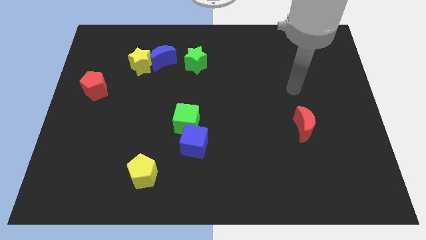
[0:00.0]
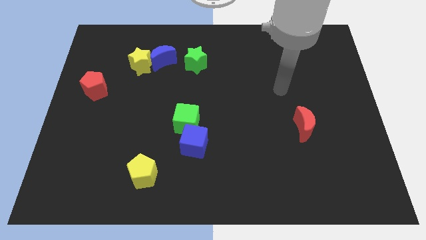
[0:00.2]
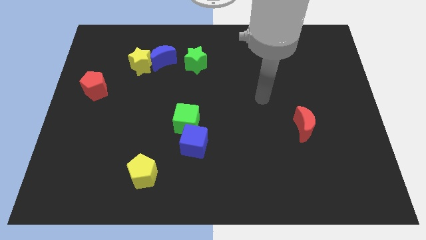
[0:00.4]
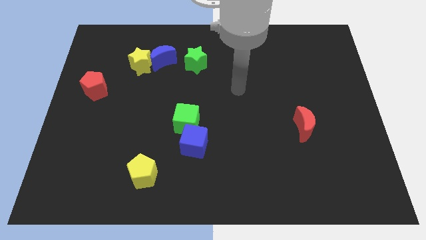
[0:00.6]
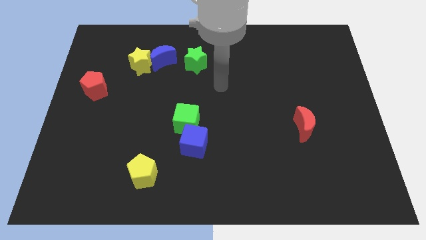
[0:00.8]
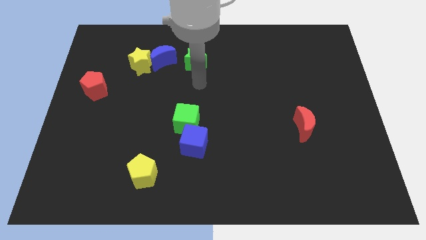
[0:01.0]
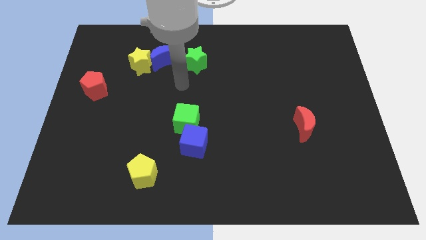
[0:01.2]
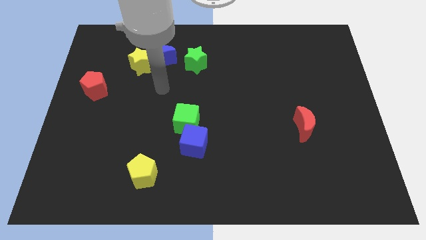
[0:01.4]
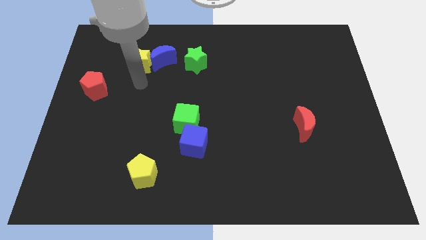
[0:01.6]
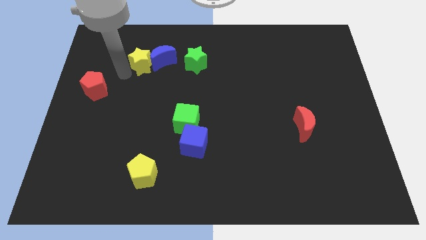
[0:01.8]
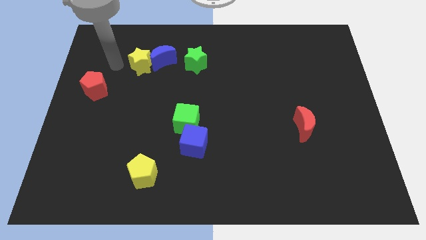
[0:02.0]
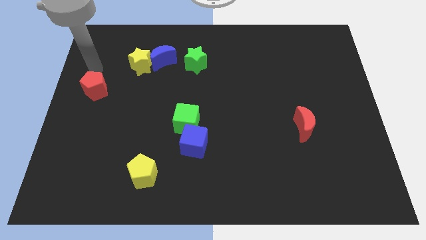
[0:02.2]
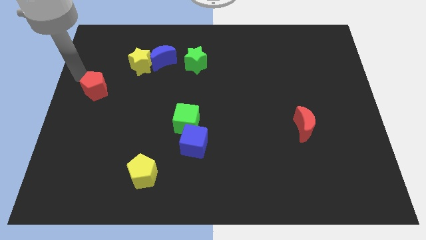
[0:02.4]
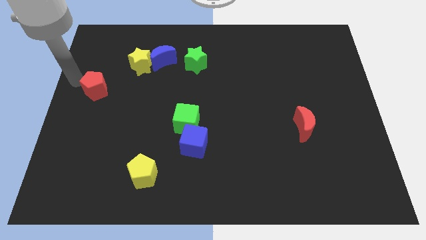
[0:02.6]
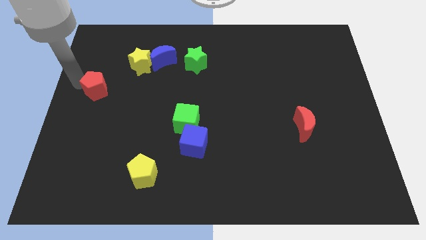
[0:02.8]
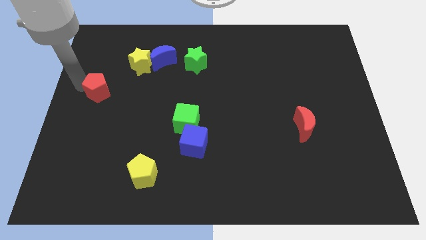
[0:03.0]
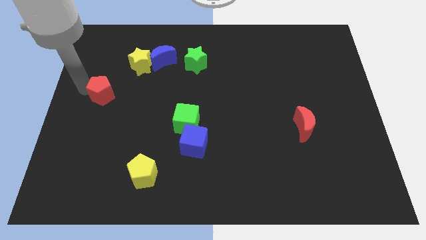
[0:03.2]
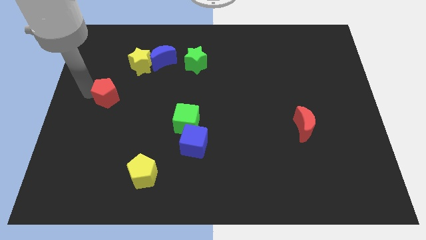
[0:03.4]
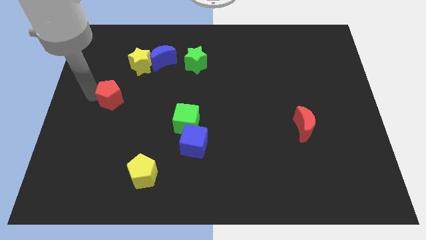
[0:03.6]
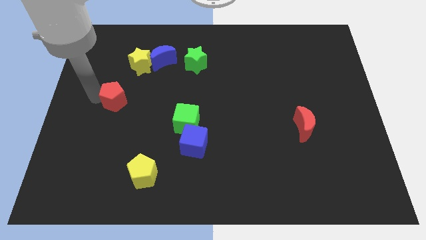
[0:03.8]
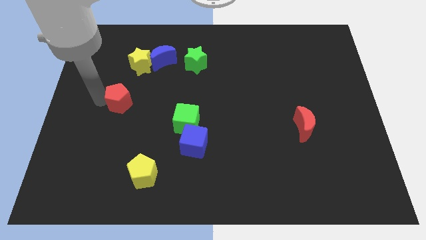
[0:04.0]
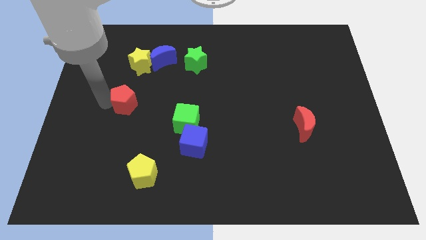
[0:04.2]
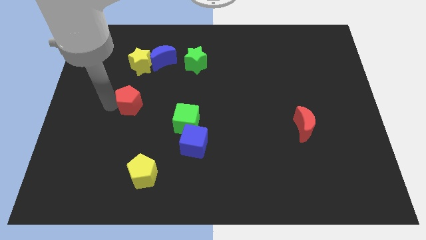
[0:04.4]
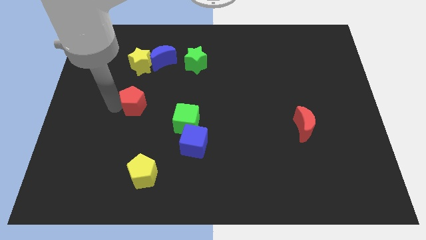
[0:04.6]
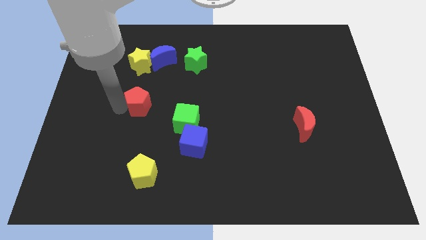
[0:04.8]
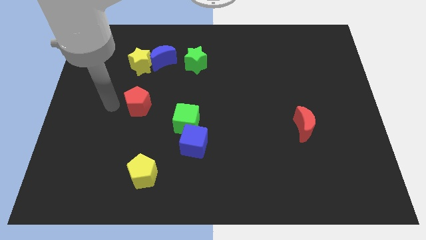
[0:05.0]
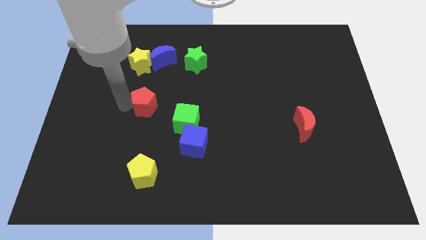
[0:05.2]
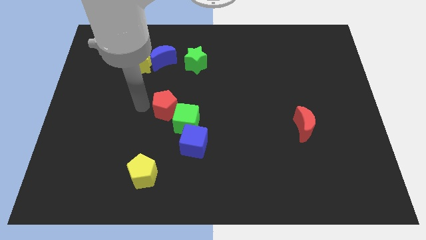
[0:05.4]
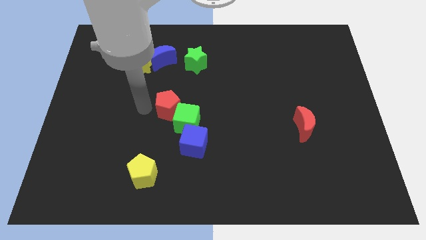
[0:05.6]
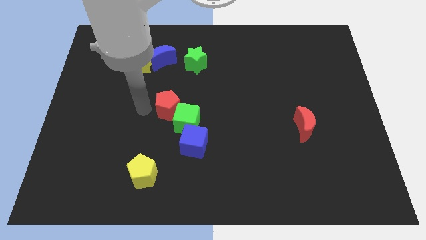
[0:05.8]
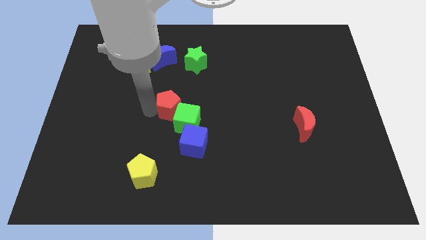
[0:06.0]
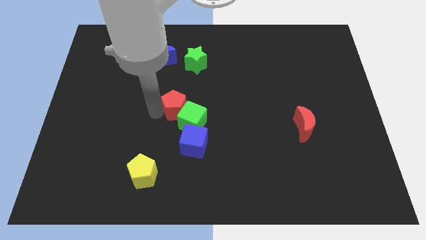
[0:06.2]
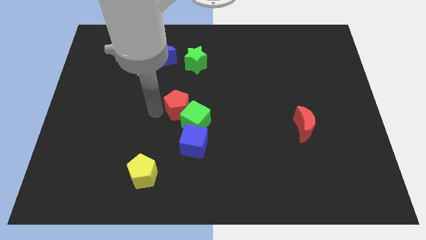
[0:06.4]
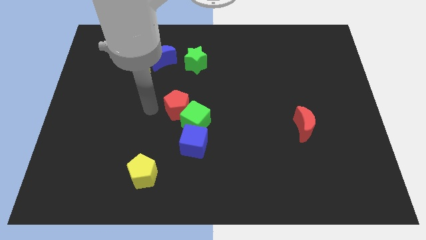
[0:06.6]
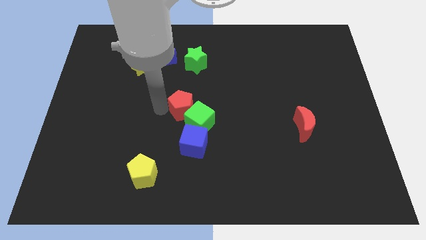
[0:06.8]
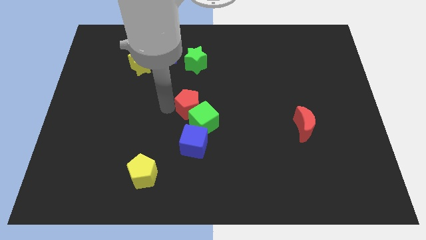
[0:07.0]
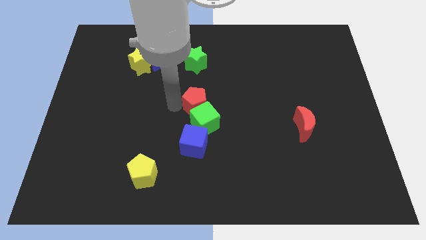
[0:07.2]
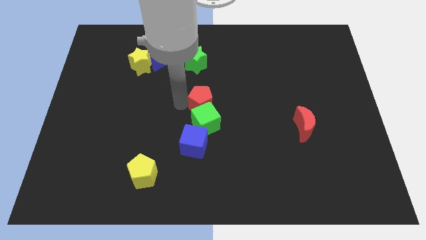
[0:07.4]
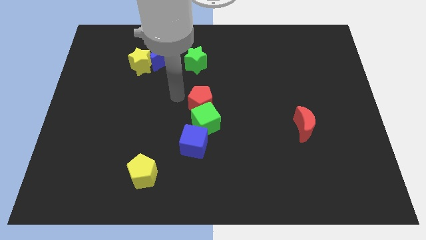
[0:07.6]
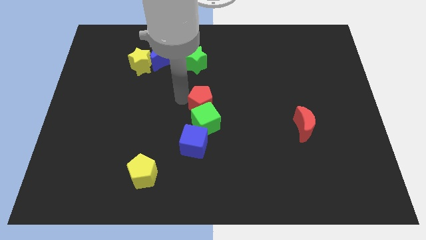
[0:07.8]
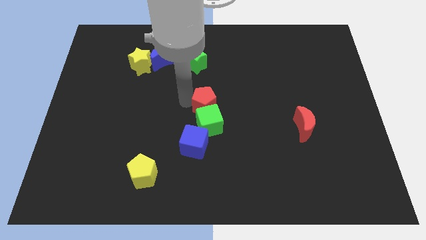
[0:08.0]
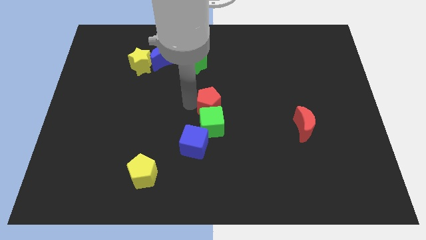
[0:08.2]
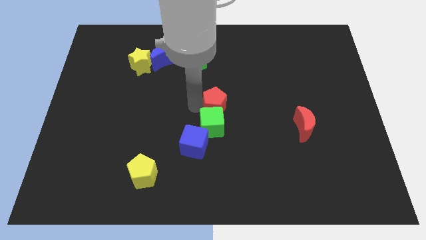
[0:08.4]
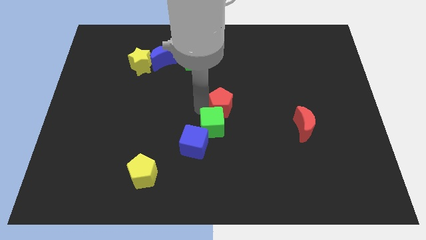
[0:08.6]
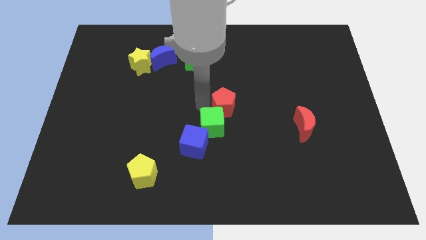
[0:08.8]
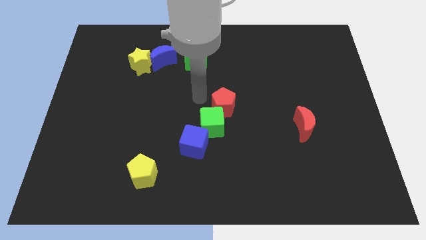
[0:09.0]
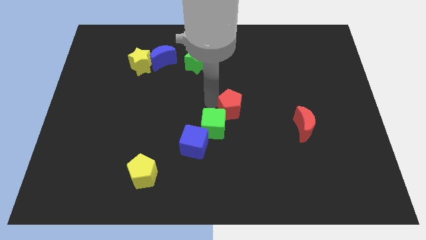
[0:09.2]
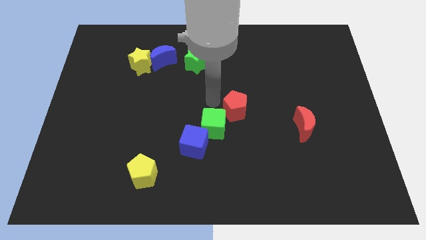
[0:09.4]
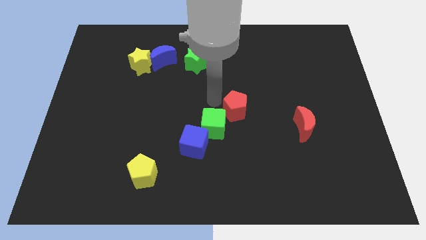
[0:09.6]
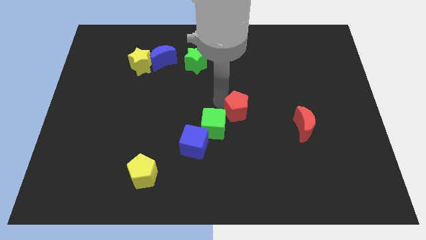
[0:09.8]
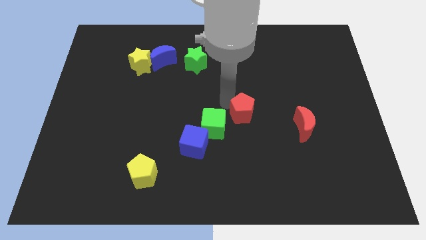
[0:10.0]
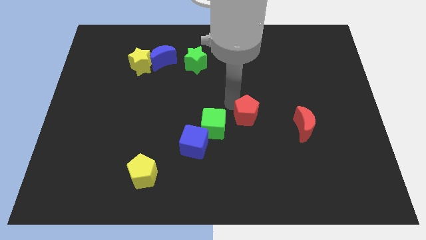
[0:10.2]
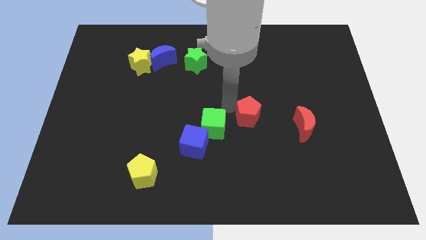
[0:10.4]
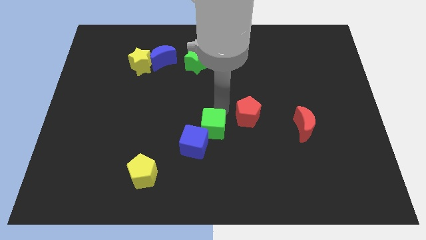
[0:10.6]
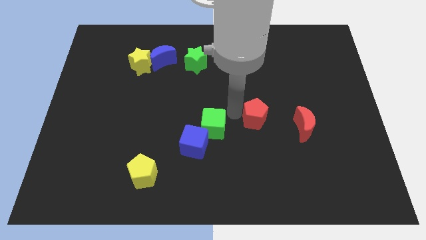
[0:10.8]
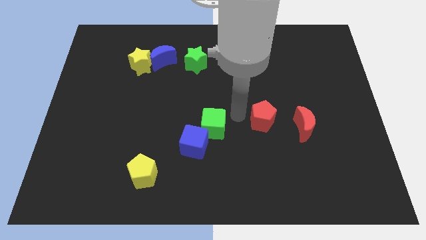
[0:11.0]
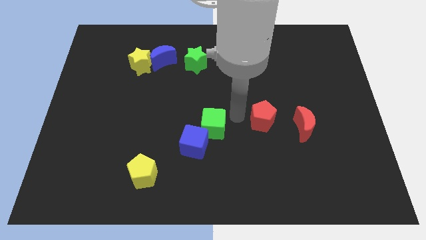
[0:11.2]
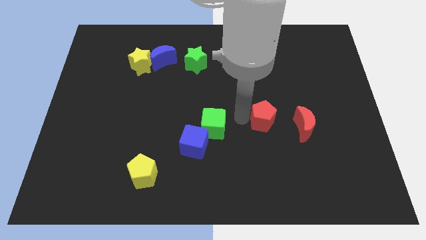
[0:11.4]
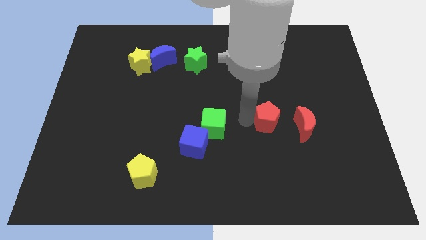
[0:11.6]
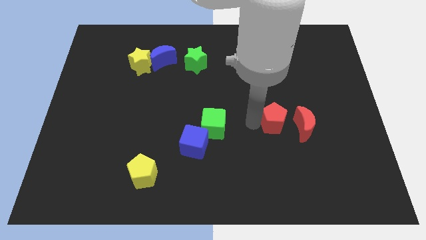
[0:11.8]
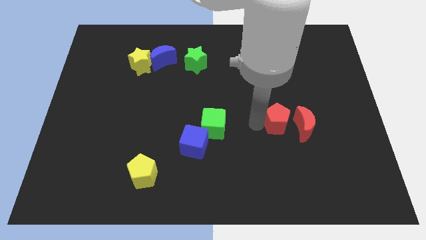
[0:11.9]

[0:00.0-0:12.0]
put the red pentagon next to the red moon

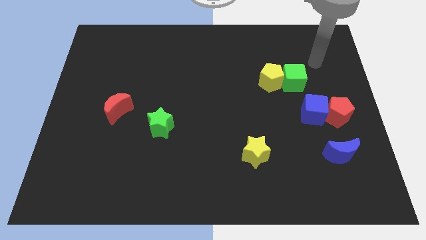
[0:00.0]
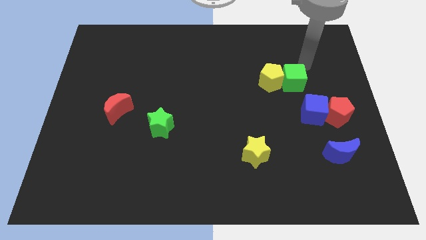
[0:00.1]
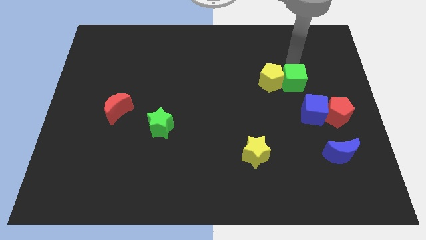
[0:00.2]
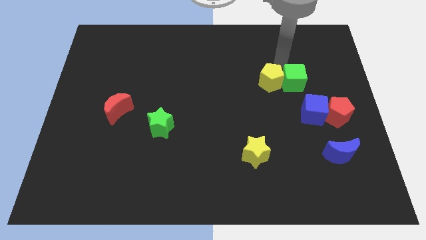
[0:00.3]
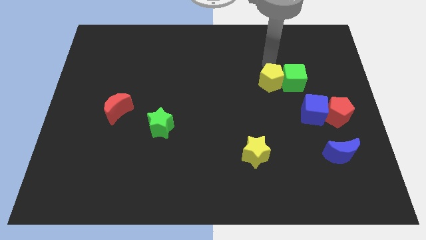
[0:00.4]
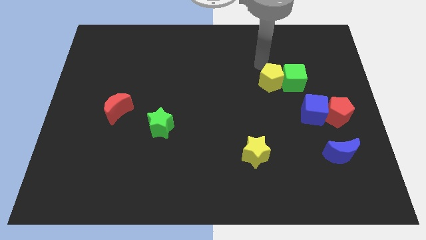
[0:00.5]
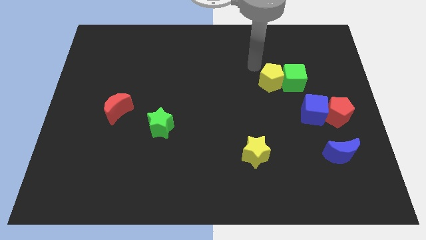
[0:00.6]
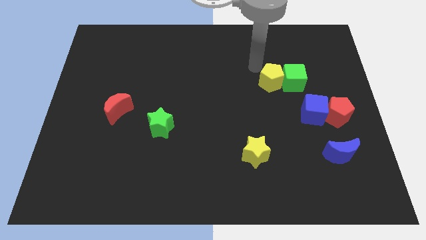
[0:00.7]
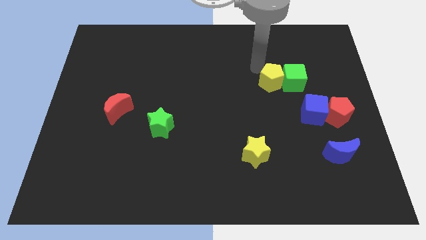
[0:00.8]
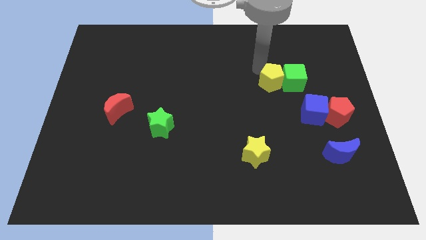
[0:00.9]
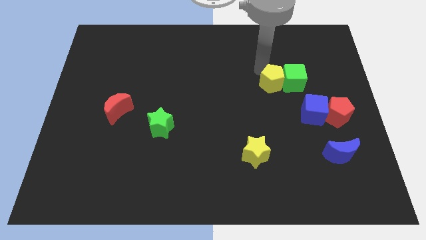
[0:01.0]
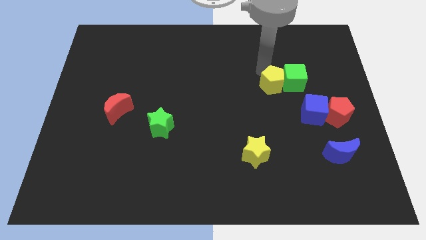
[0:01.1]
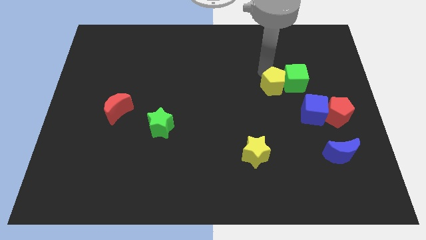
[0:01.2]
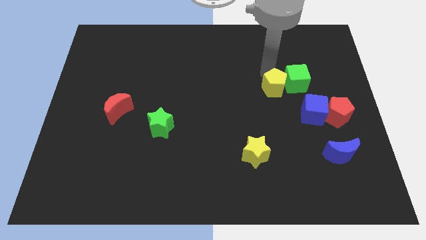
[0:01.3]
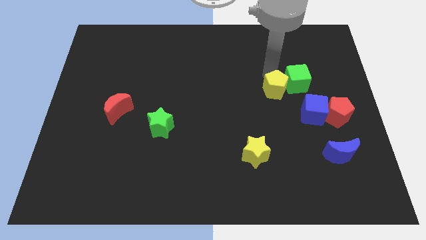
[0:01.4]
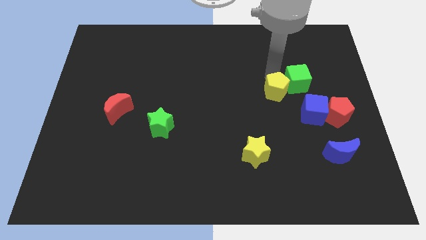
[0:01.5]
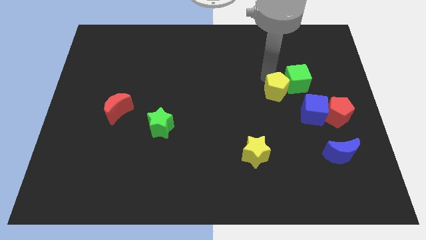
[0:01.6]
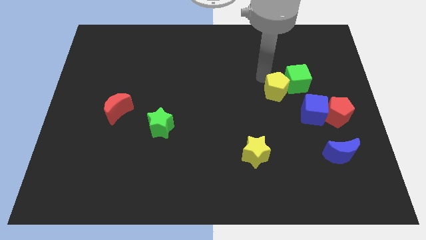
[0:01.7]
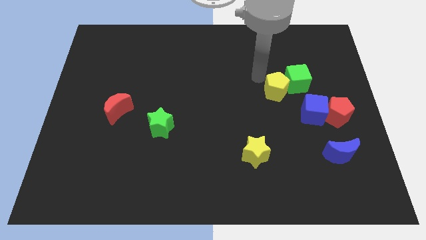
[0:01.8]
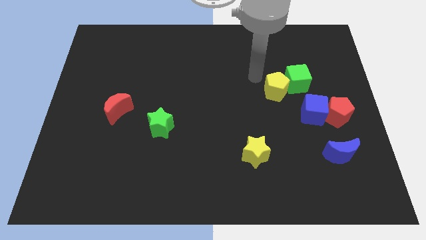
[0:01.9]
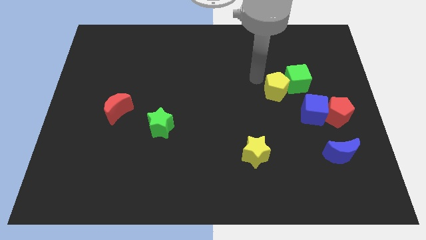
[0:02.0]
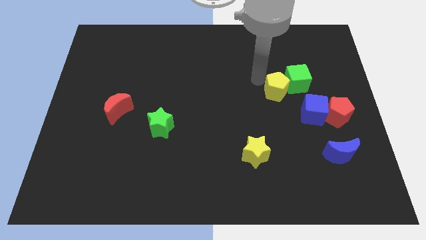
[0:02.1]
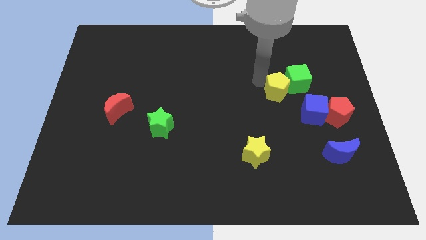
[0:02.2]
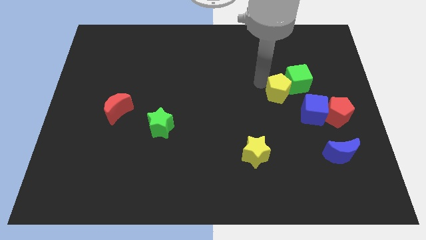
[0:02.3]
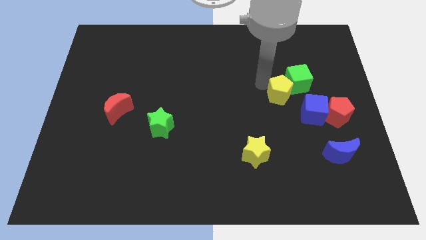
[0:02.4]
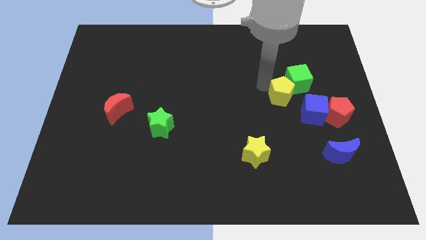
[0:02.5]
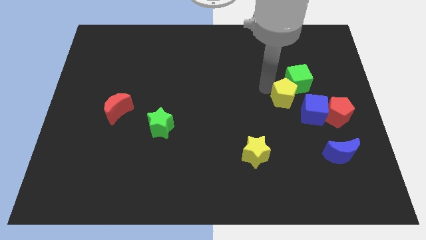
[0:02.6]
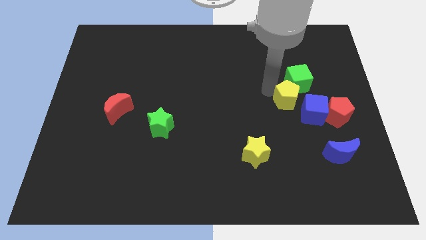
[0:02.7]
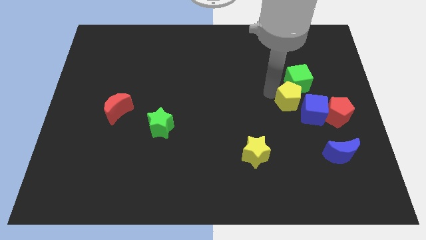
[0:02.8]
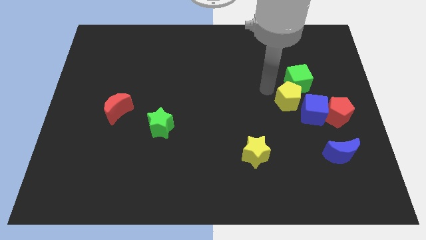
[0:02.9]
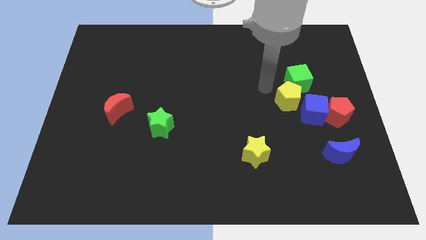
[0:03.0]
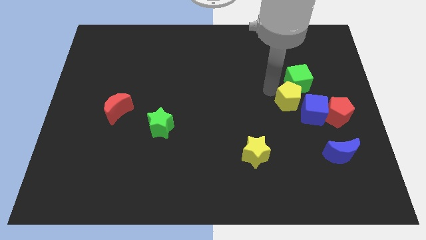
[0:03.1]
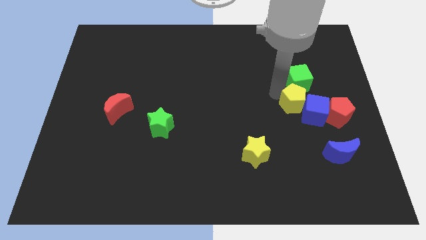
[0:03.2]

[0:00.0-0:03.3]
slide the yellow pentagon next to the blue cube
